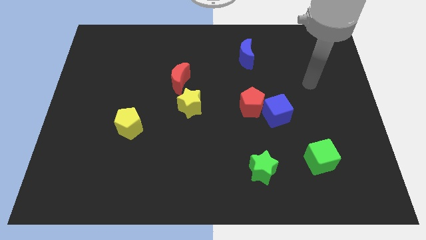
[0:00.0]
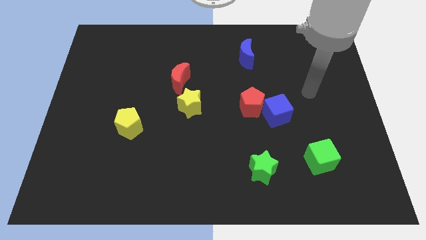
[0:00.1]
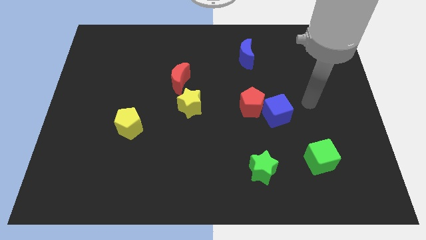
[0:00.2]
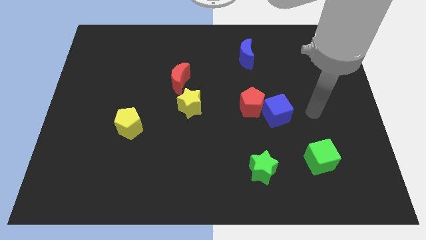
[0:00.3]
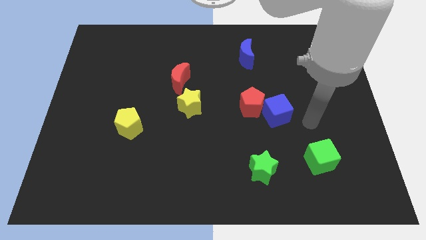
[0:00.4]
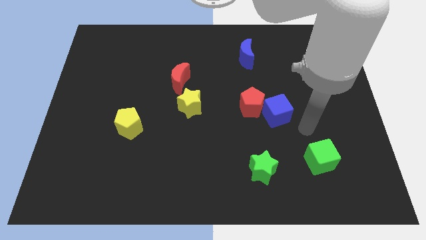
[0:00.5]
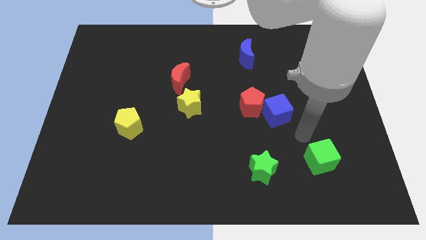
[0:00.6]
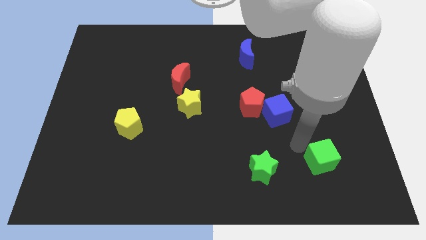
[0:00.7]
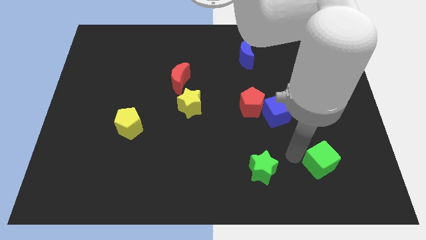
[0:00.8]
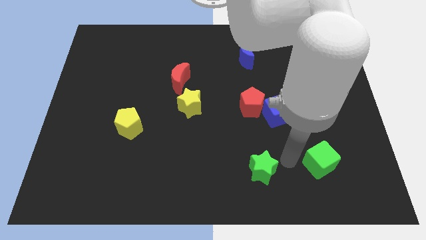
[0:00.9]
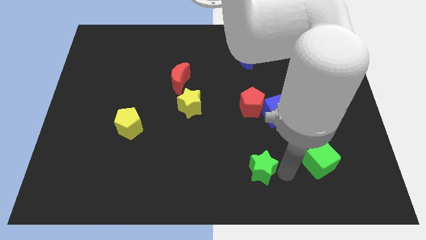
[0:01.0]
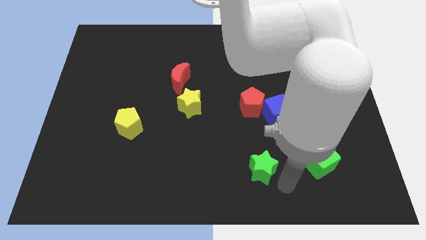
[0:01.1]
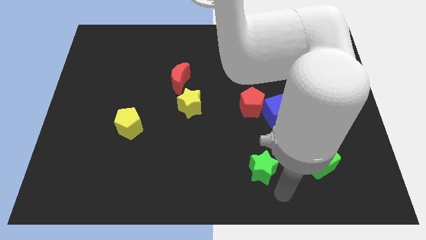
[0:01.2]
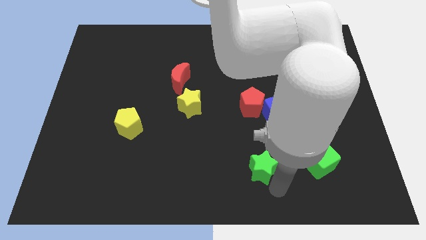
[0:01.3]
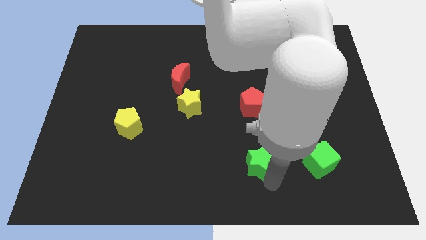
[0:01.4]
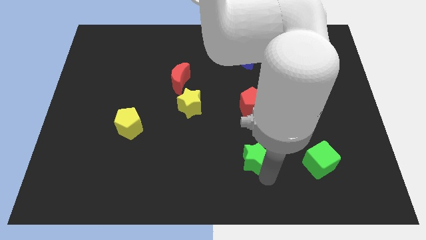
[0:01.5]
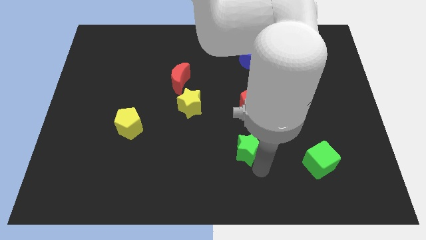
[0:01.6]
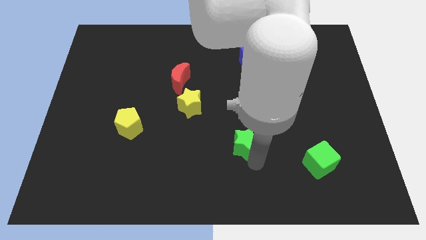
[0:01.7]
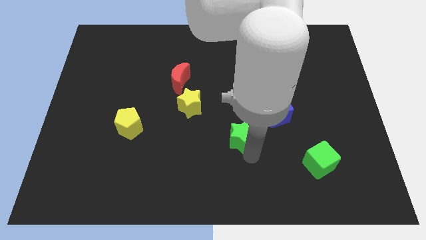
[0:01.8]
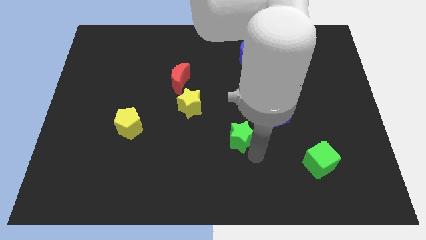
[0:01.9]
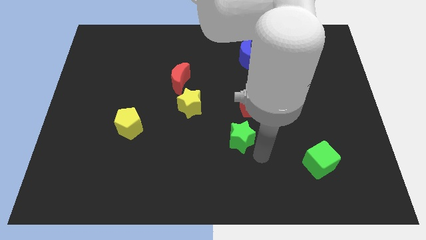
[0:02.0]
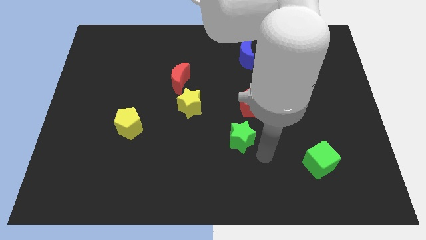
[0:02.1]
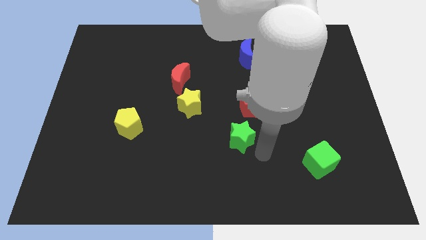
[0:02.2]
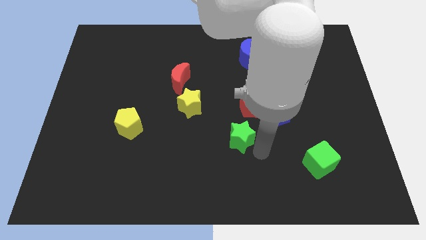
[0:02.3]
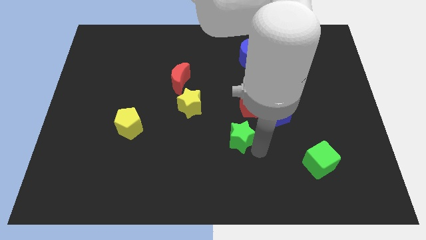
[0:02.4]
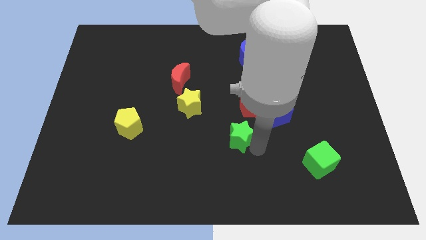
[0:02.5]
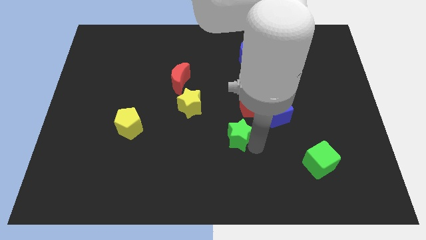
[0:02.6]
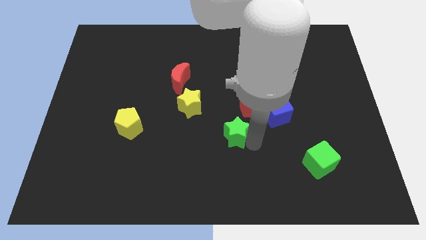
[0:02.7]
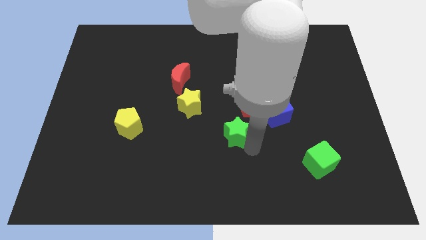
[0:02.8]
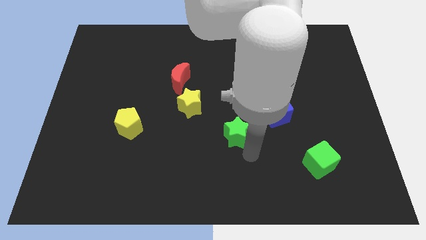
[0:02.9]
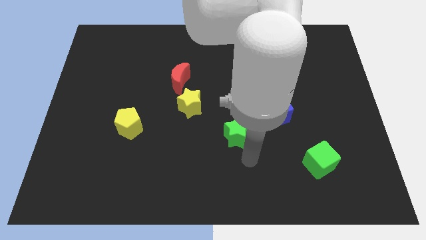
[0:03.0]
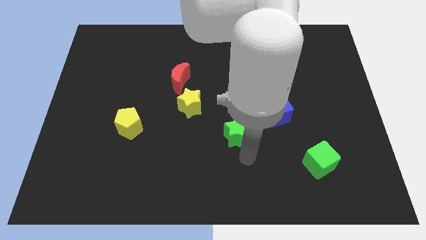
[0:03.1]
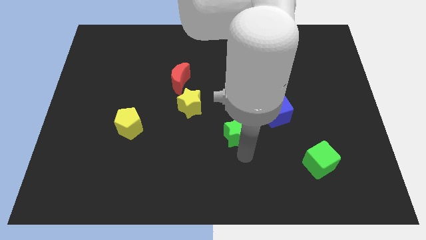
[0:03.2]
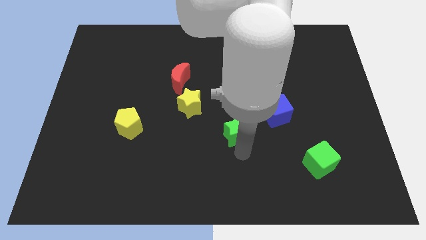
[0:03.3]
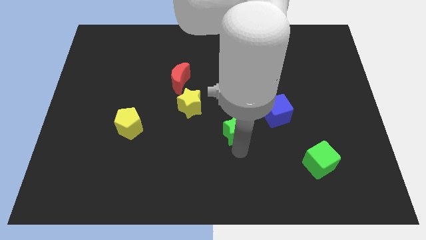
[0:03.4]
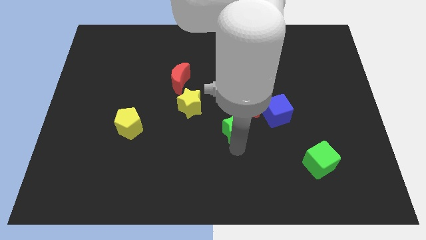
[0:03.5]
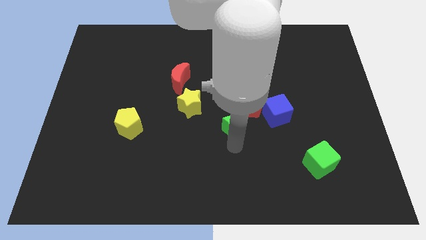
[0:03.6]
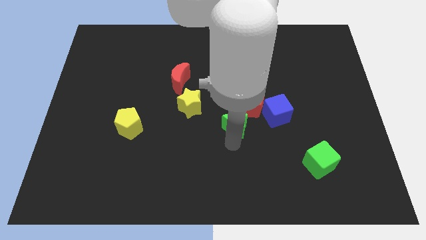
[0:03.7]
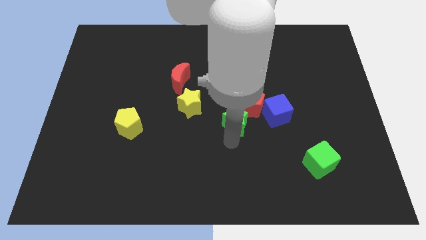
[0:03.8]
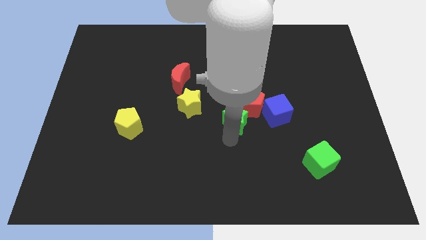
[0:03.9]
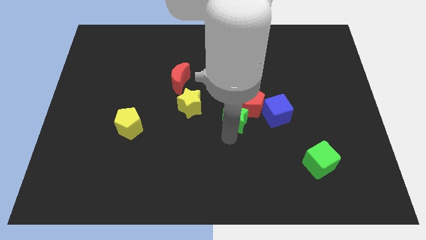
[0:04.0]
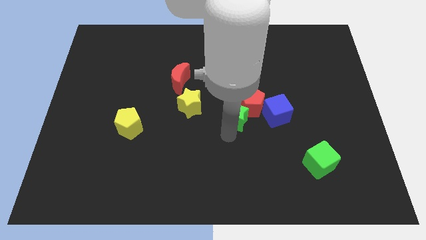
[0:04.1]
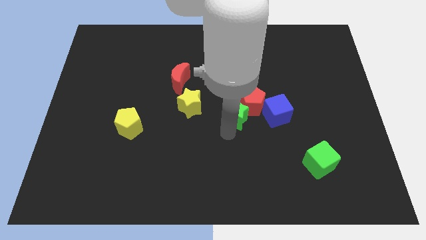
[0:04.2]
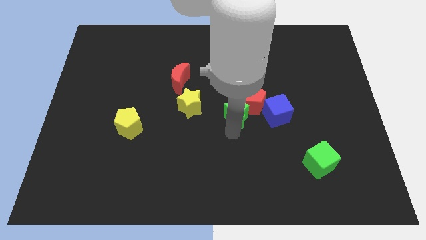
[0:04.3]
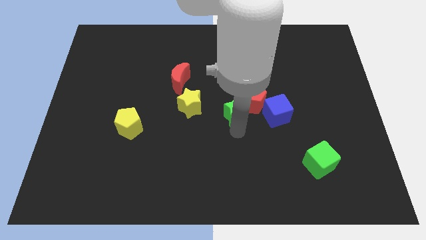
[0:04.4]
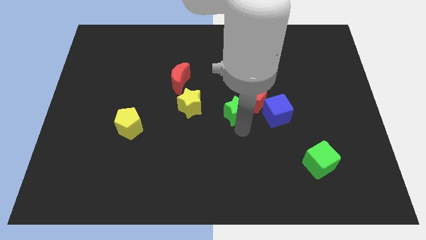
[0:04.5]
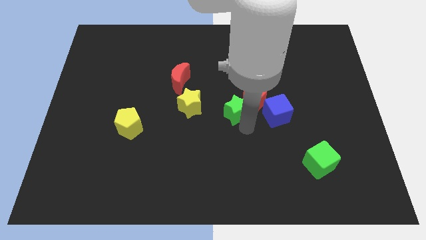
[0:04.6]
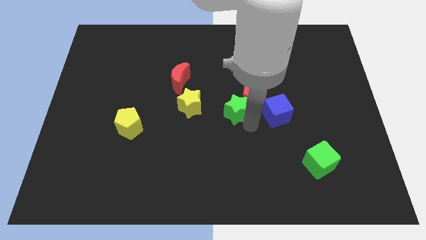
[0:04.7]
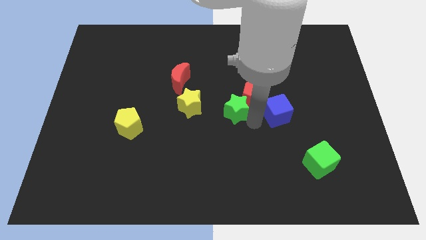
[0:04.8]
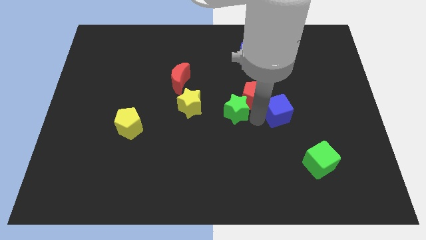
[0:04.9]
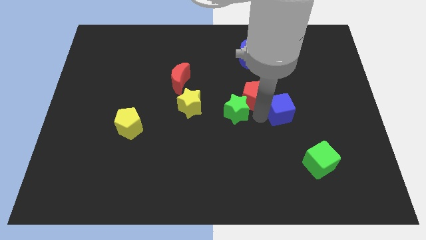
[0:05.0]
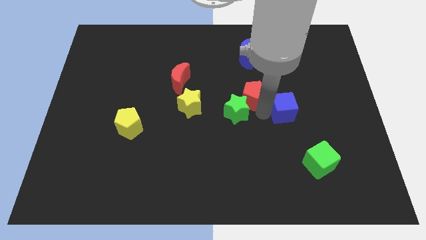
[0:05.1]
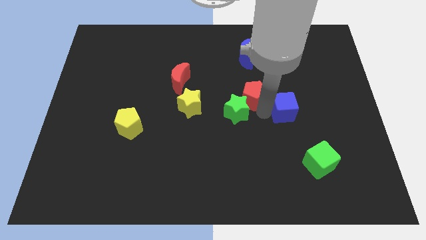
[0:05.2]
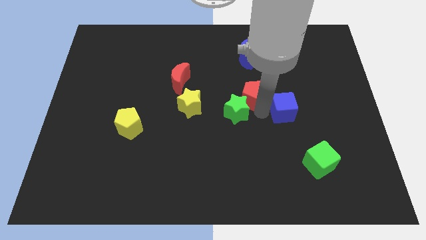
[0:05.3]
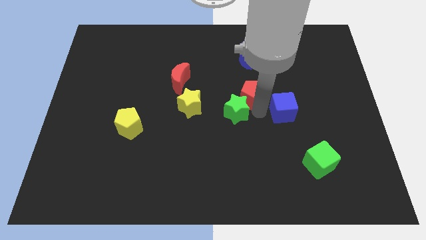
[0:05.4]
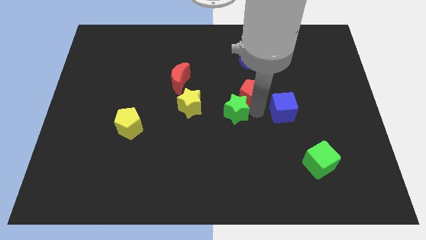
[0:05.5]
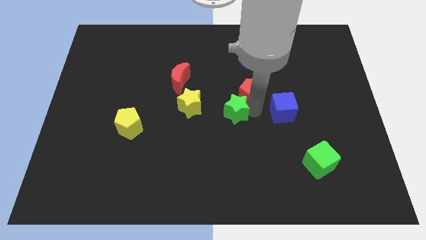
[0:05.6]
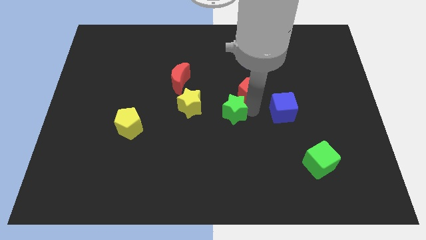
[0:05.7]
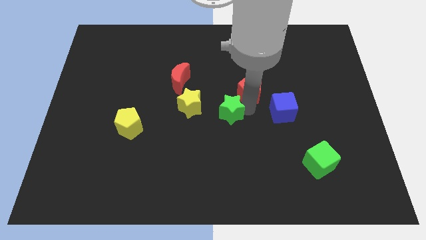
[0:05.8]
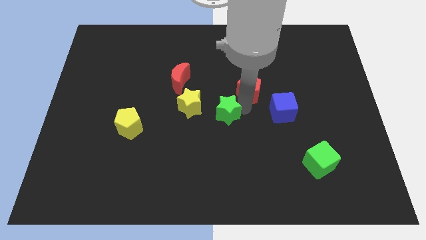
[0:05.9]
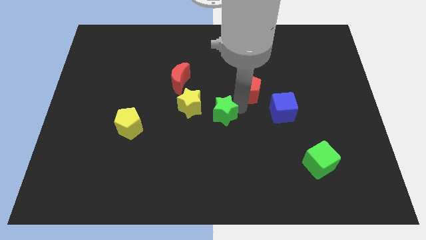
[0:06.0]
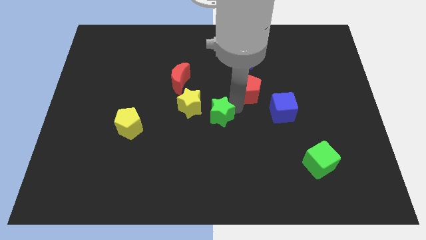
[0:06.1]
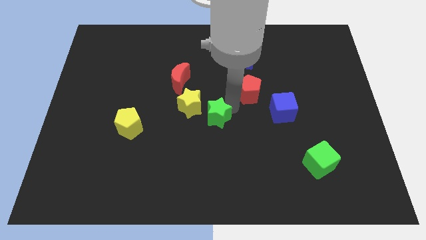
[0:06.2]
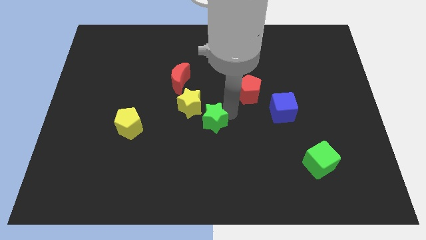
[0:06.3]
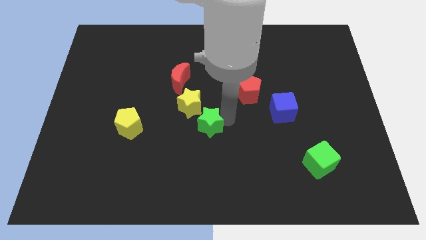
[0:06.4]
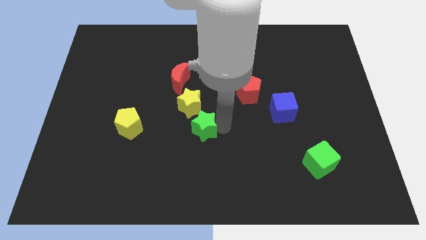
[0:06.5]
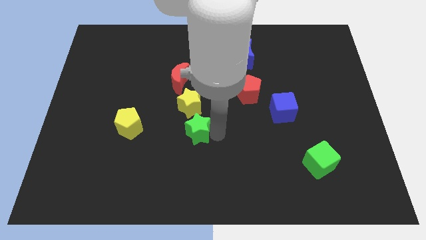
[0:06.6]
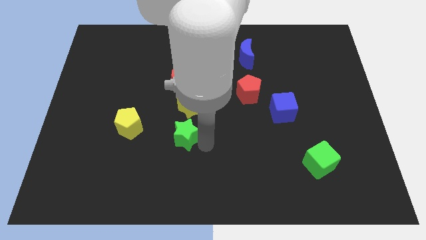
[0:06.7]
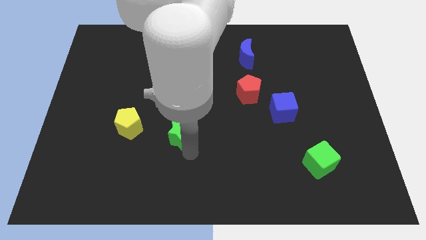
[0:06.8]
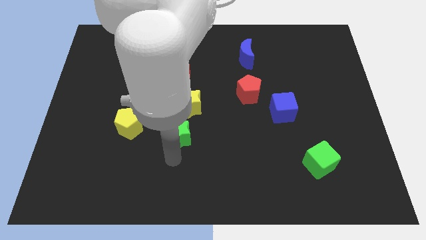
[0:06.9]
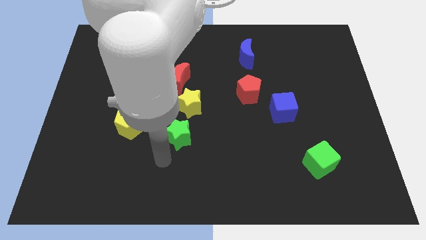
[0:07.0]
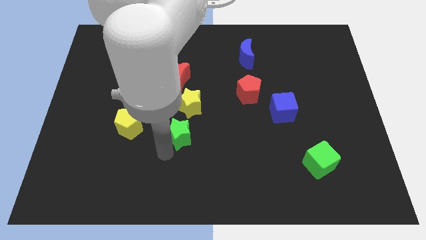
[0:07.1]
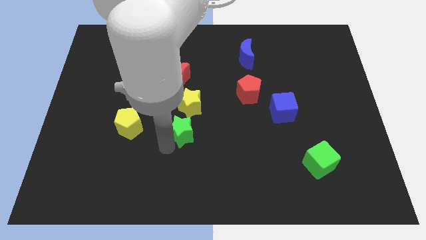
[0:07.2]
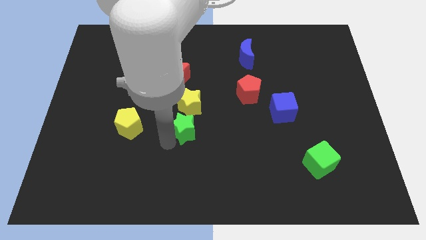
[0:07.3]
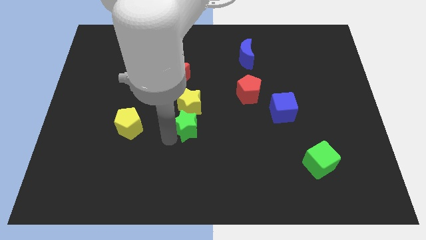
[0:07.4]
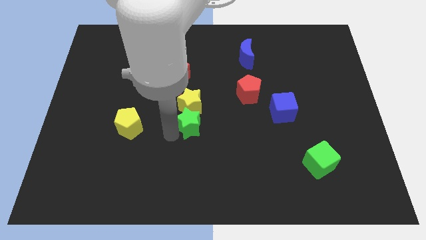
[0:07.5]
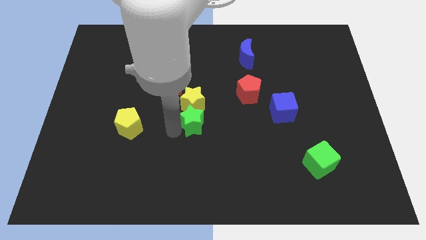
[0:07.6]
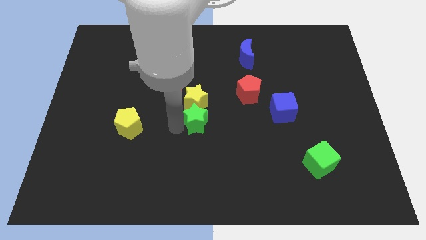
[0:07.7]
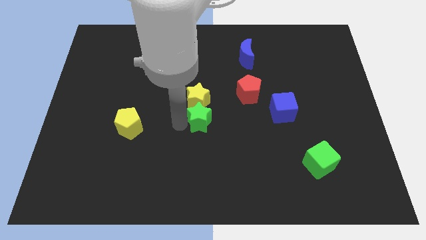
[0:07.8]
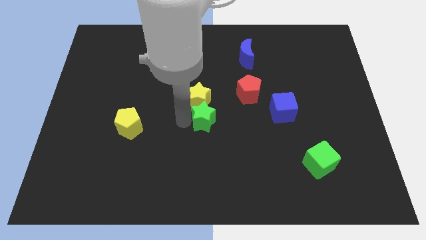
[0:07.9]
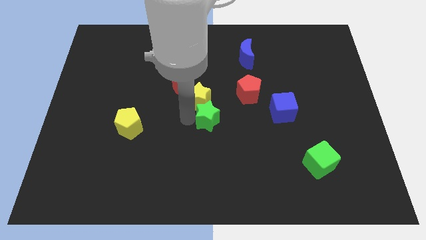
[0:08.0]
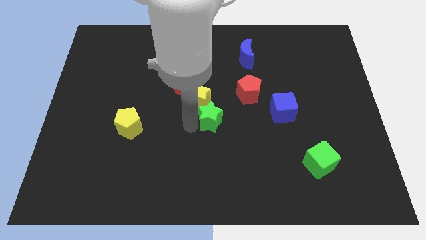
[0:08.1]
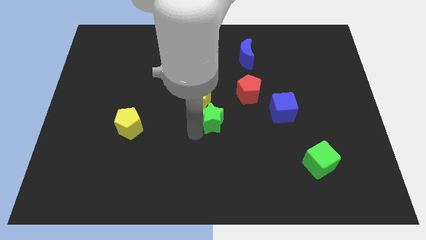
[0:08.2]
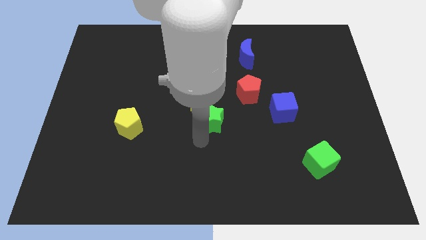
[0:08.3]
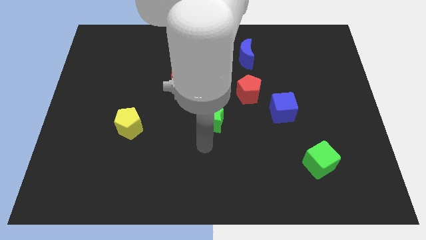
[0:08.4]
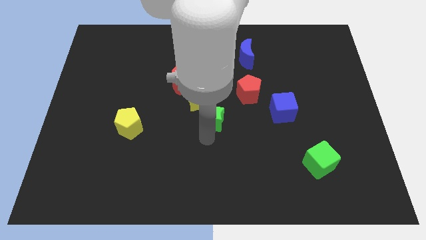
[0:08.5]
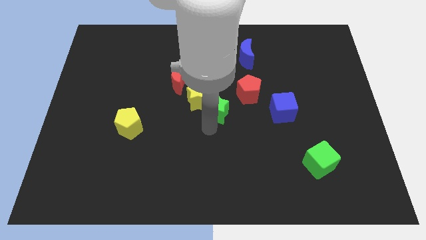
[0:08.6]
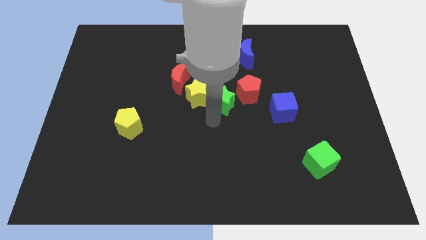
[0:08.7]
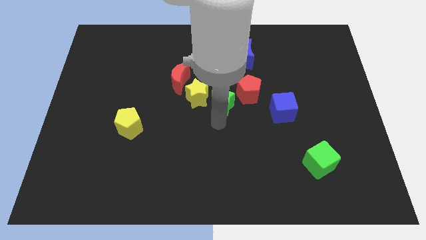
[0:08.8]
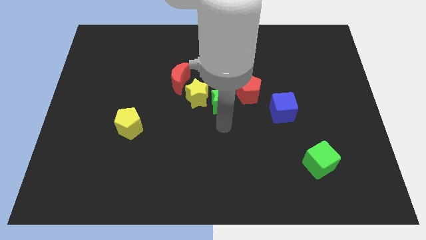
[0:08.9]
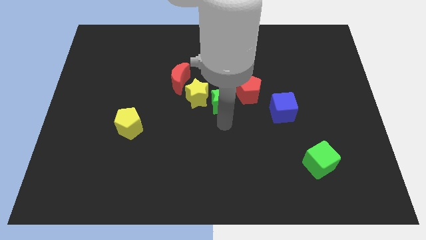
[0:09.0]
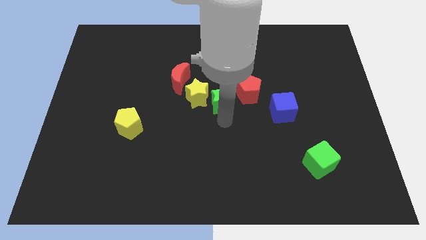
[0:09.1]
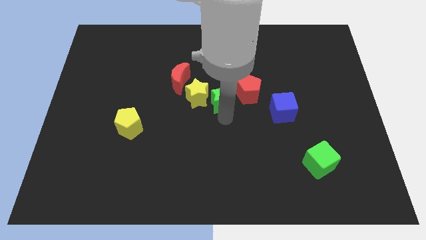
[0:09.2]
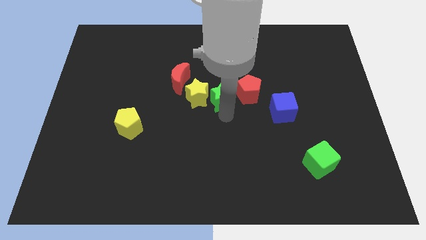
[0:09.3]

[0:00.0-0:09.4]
put the green star to the top right side of the yellow star
